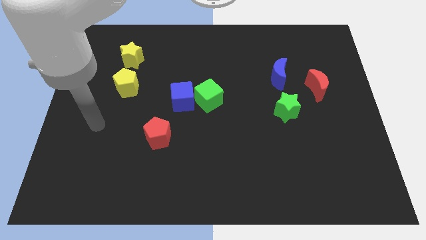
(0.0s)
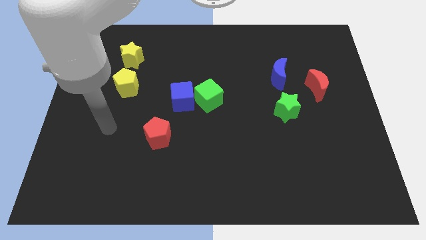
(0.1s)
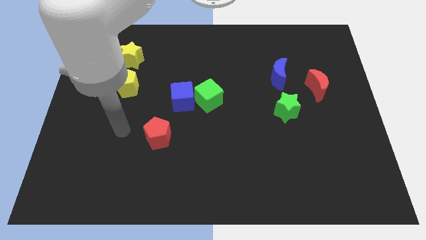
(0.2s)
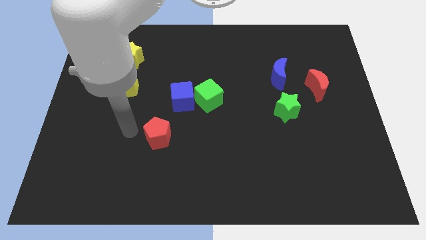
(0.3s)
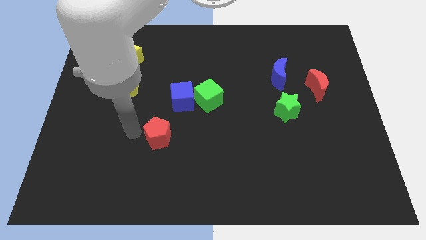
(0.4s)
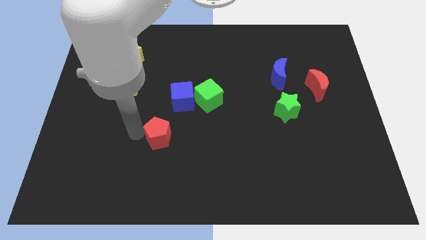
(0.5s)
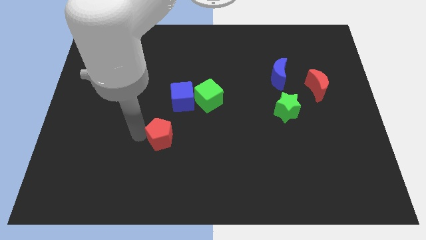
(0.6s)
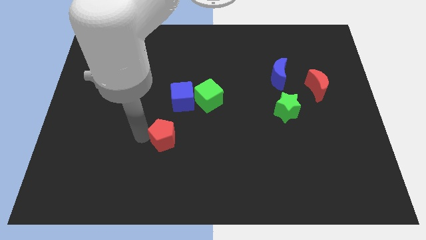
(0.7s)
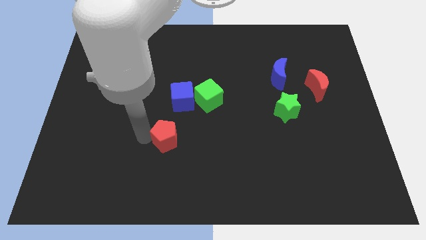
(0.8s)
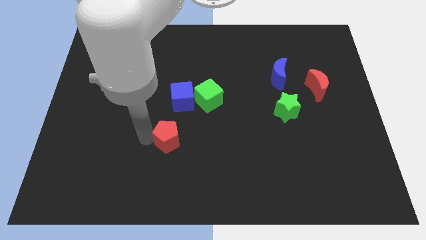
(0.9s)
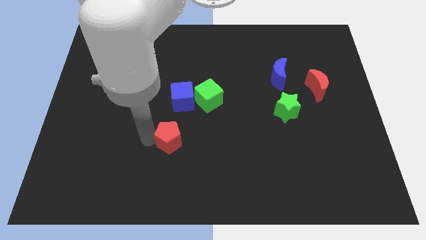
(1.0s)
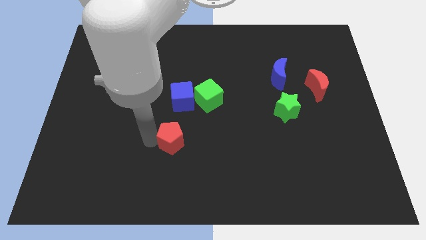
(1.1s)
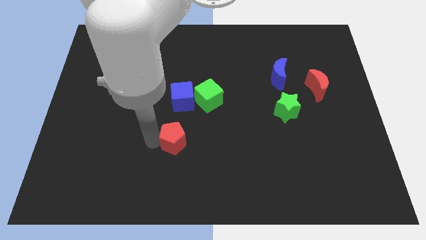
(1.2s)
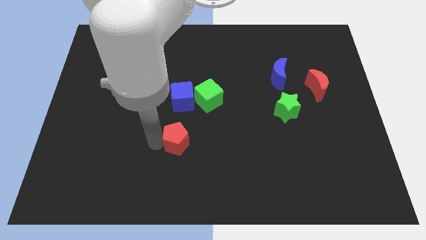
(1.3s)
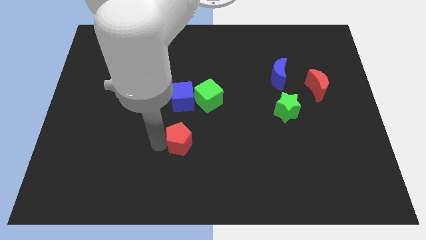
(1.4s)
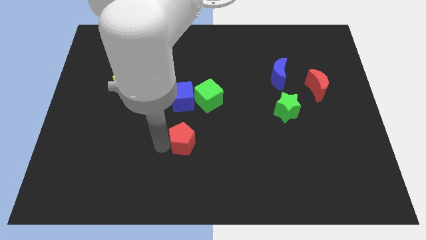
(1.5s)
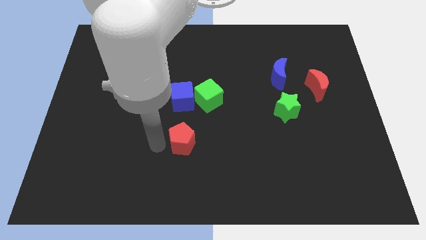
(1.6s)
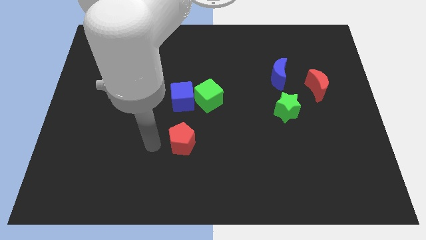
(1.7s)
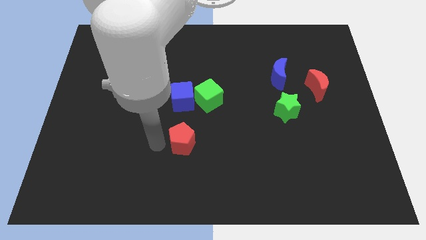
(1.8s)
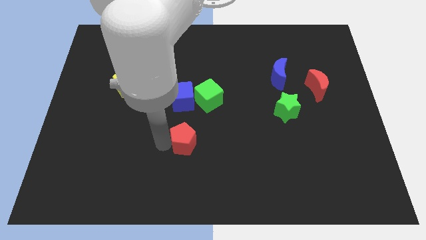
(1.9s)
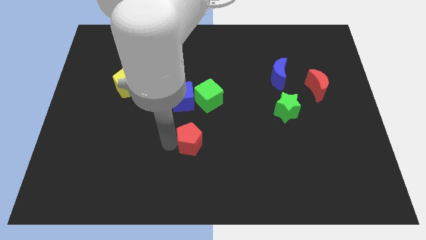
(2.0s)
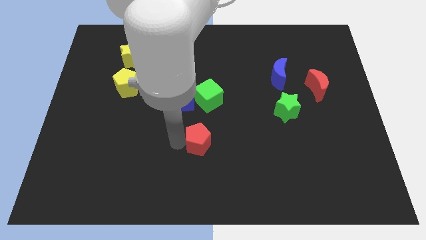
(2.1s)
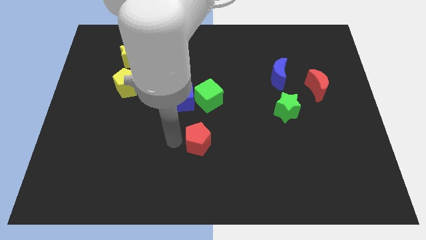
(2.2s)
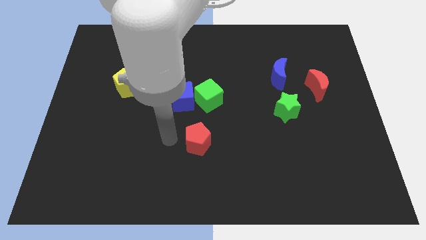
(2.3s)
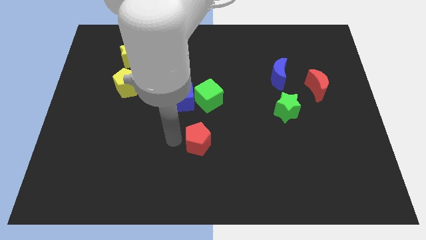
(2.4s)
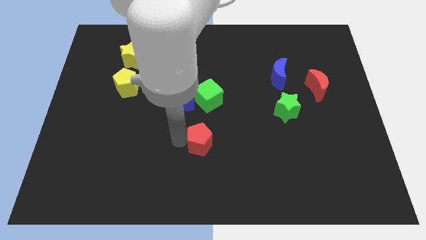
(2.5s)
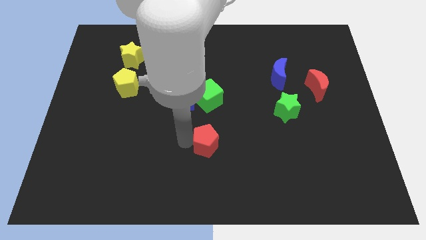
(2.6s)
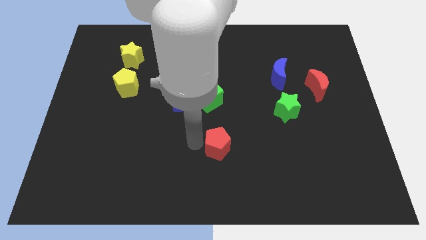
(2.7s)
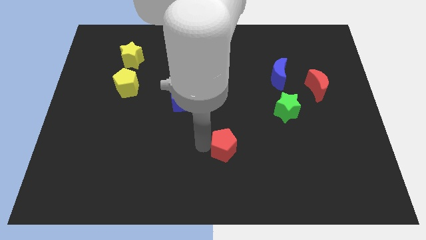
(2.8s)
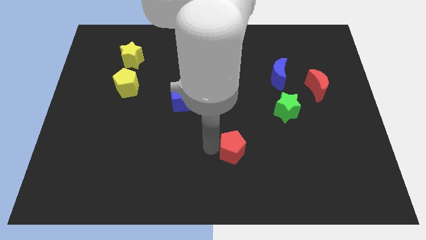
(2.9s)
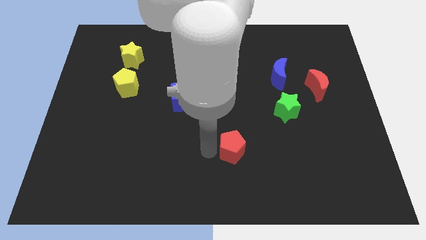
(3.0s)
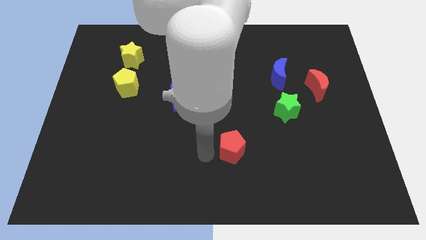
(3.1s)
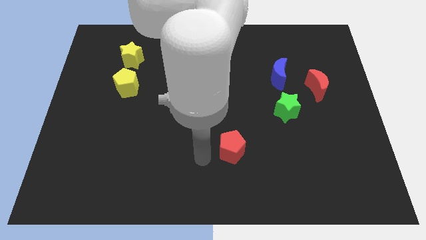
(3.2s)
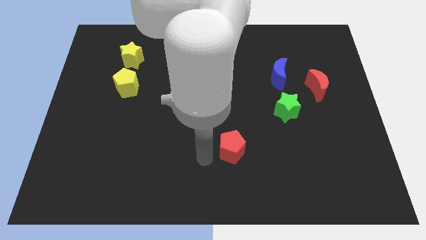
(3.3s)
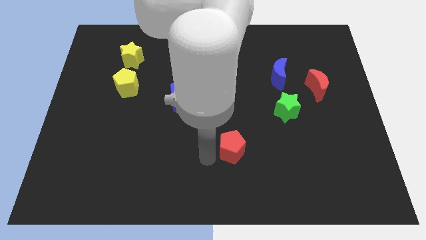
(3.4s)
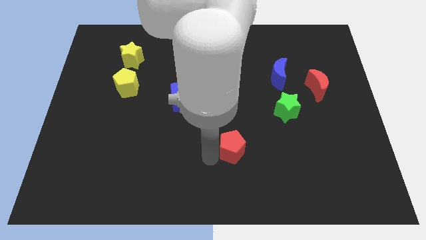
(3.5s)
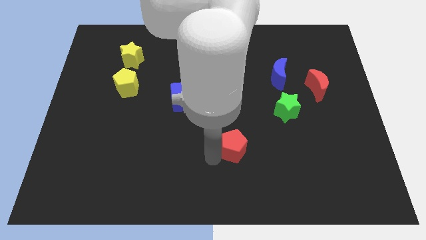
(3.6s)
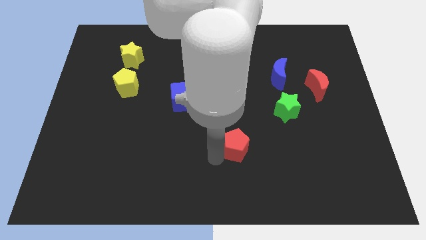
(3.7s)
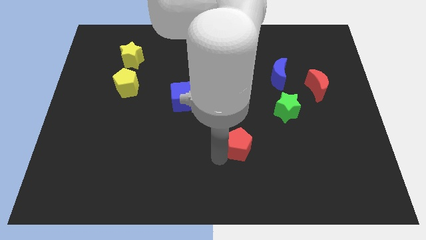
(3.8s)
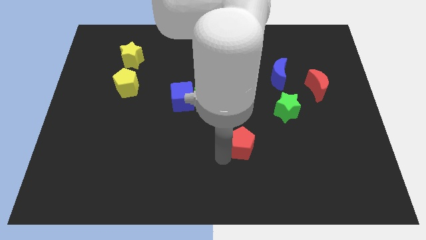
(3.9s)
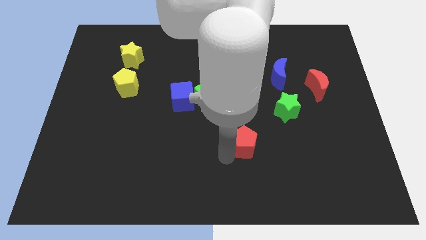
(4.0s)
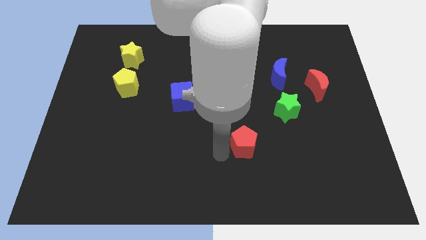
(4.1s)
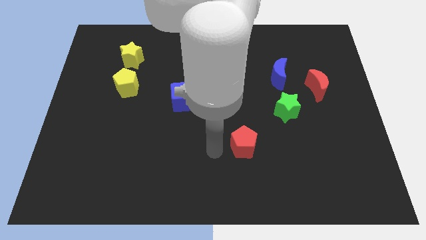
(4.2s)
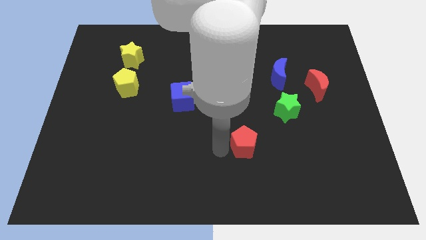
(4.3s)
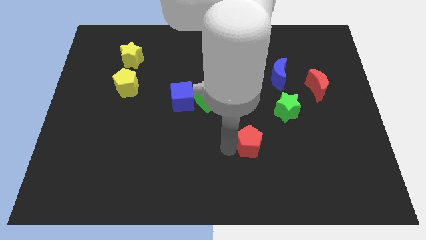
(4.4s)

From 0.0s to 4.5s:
move the red pentagon right

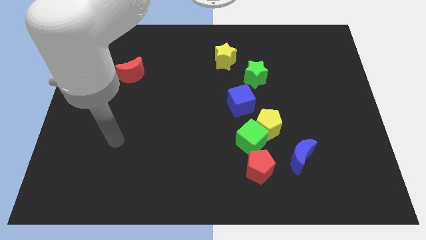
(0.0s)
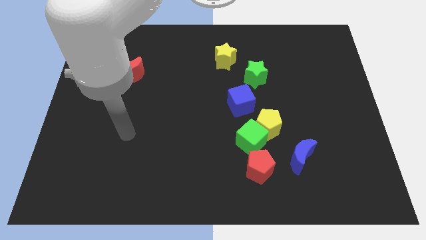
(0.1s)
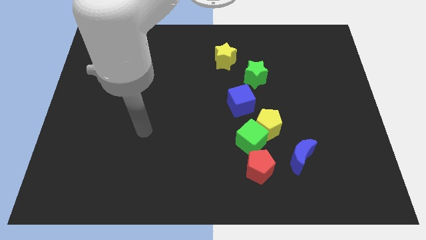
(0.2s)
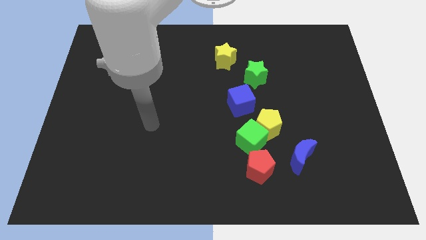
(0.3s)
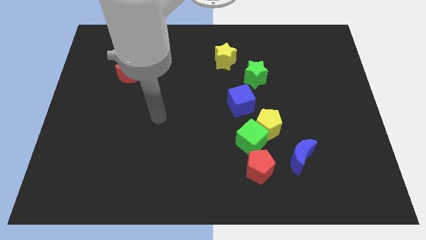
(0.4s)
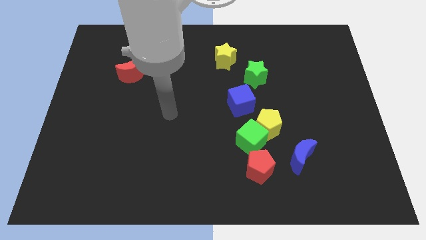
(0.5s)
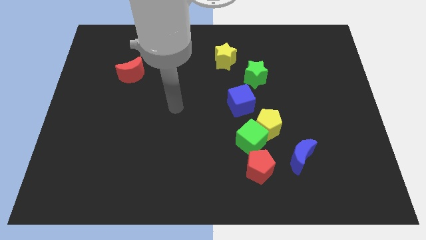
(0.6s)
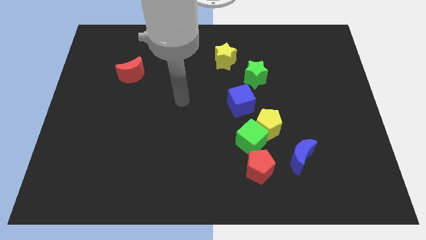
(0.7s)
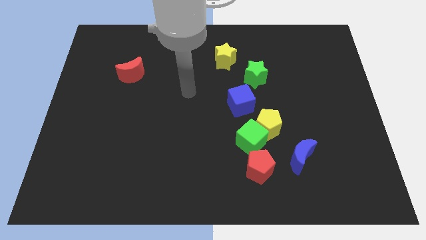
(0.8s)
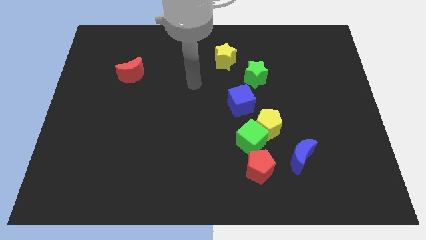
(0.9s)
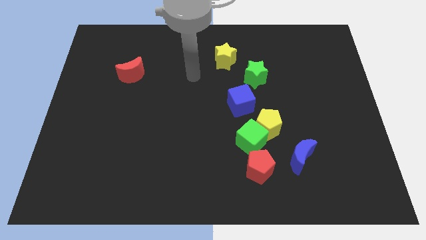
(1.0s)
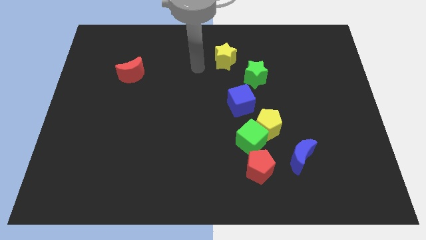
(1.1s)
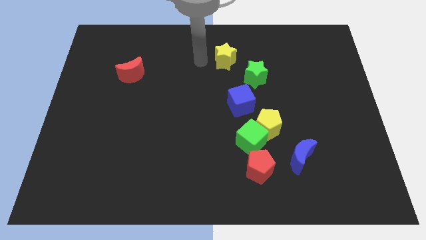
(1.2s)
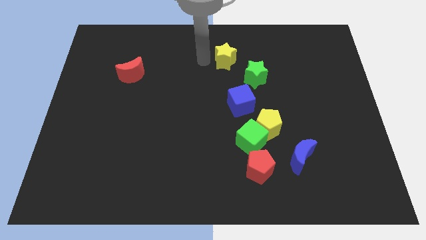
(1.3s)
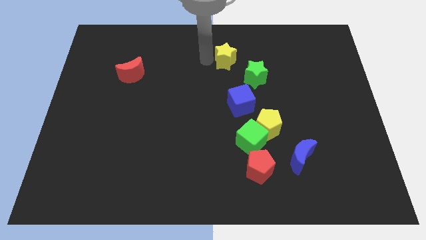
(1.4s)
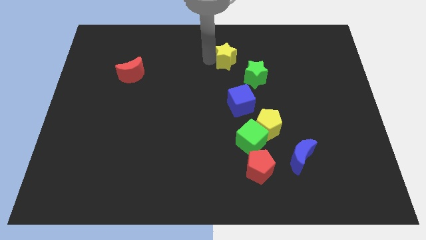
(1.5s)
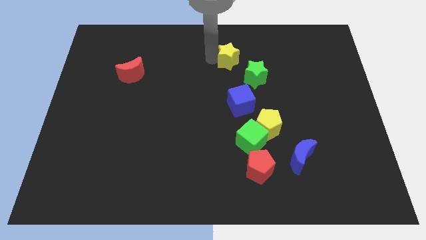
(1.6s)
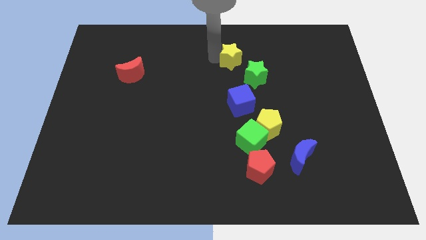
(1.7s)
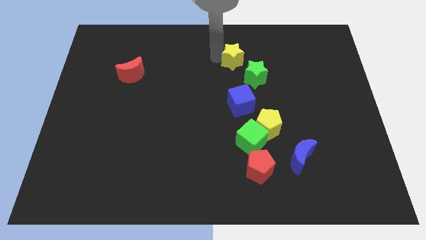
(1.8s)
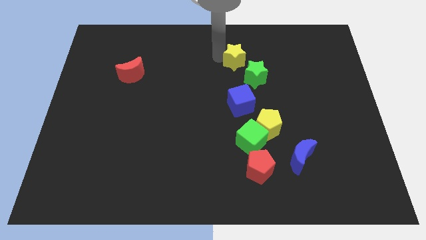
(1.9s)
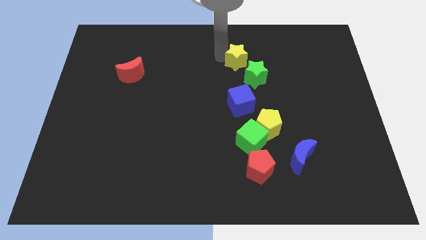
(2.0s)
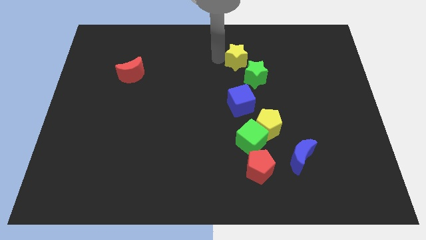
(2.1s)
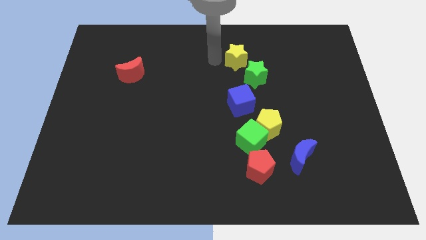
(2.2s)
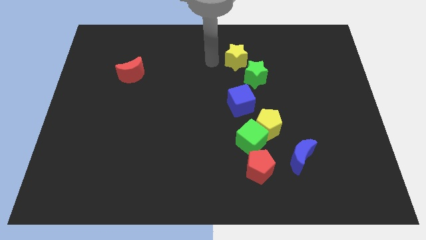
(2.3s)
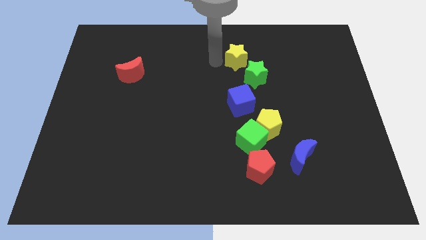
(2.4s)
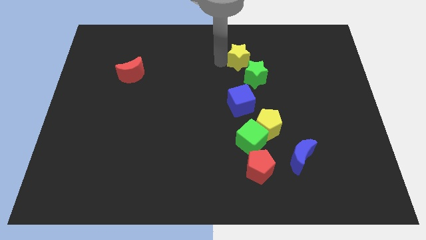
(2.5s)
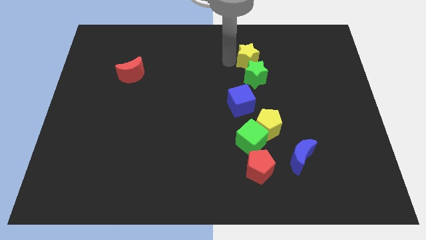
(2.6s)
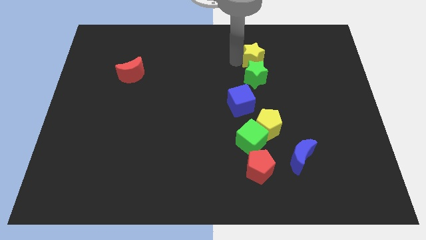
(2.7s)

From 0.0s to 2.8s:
slide the yellow star right a little

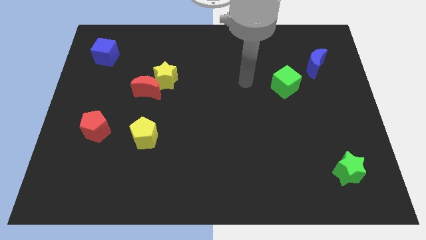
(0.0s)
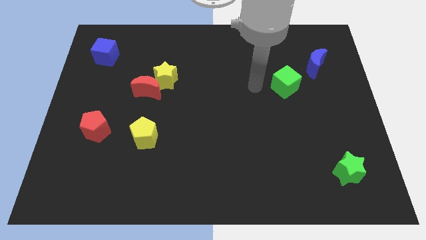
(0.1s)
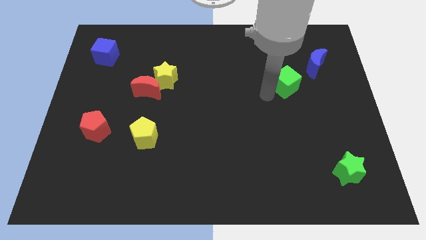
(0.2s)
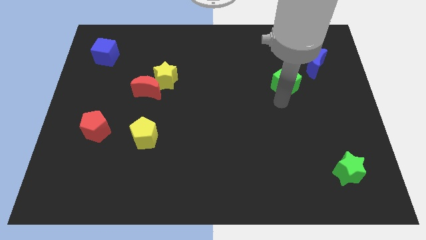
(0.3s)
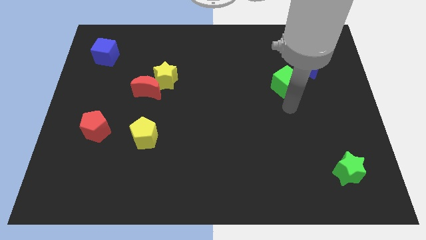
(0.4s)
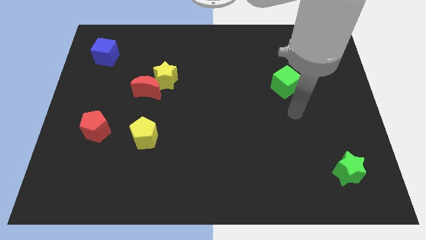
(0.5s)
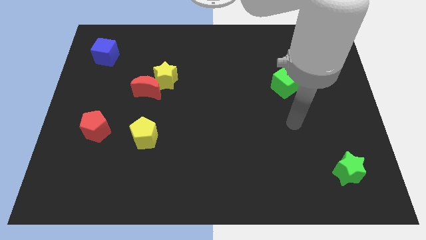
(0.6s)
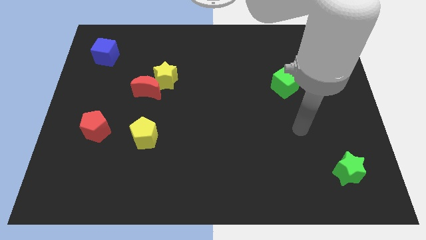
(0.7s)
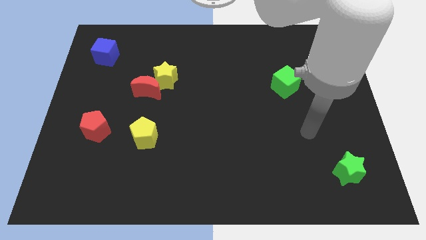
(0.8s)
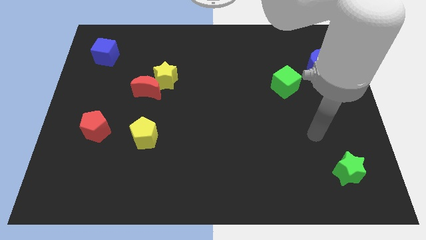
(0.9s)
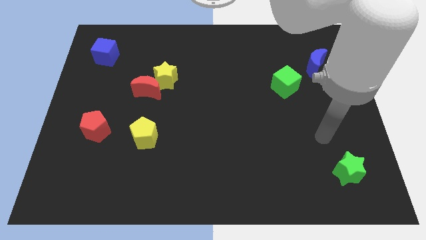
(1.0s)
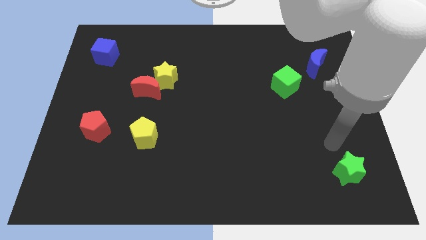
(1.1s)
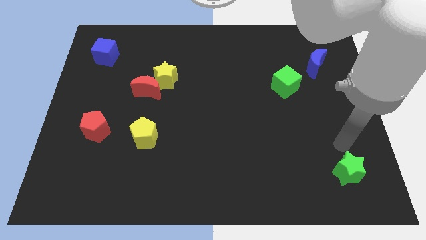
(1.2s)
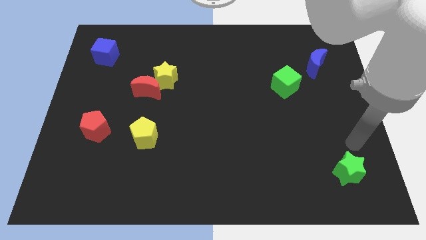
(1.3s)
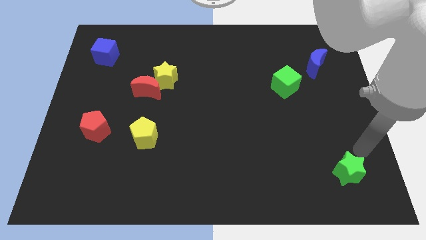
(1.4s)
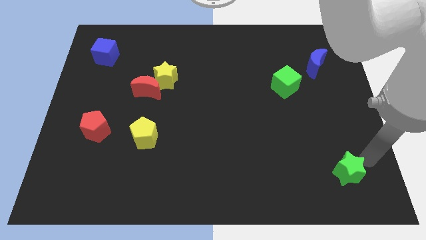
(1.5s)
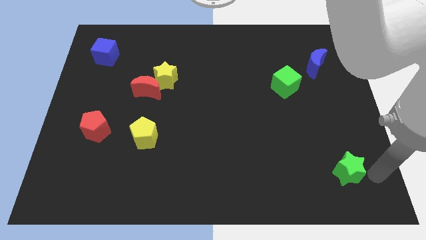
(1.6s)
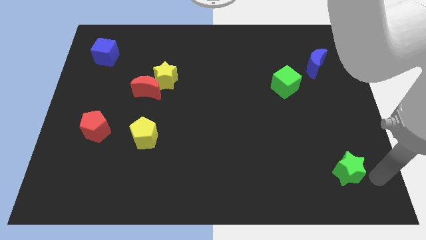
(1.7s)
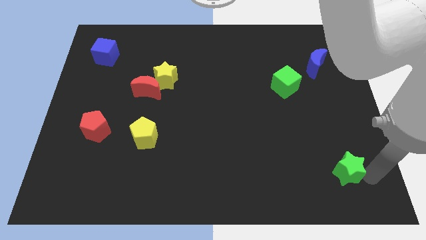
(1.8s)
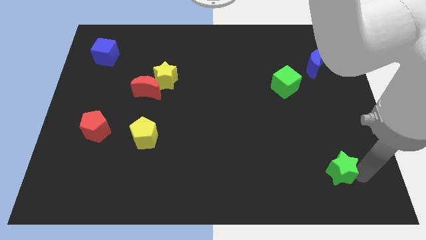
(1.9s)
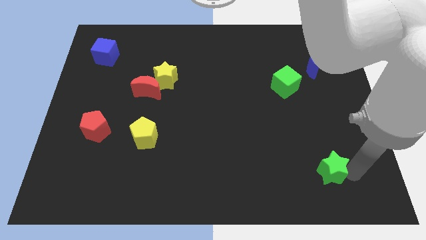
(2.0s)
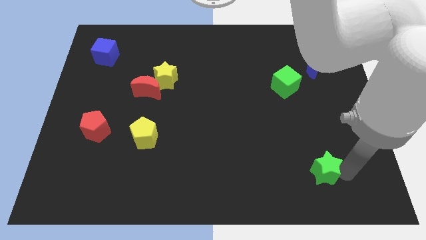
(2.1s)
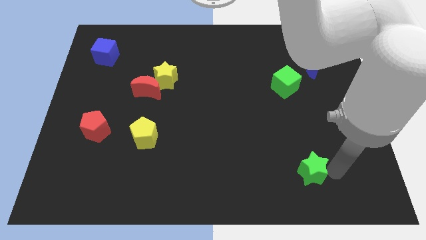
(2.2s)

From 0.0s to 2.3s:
slide the green star somewhat to the left
